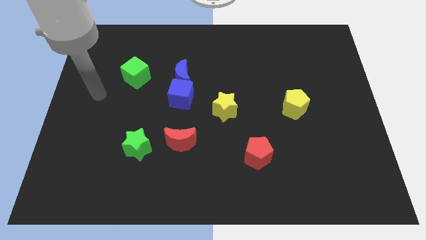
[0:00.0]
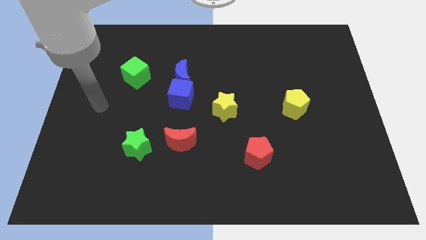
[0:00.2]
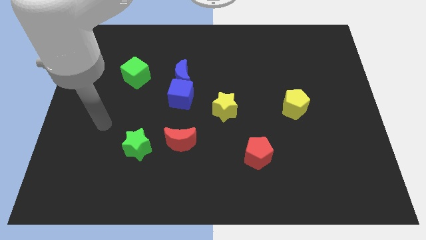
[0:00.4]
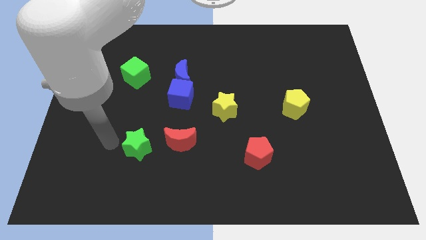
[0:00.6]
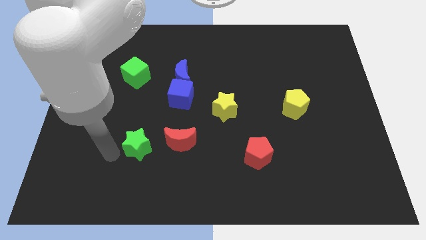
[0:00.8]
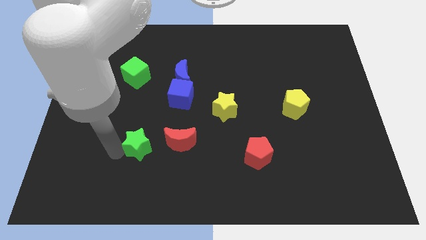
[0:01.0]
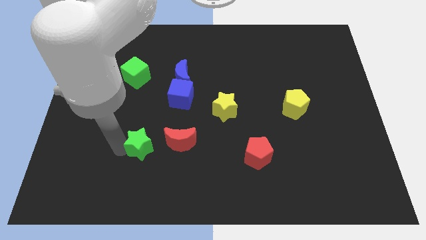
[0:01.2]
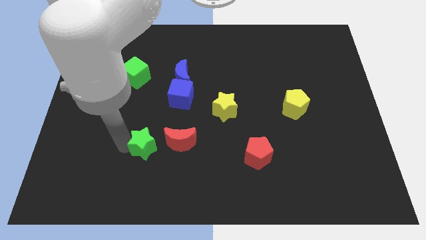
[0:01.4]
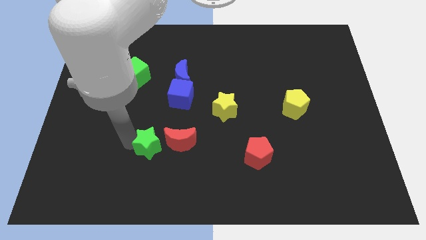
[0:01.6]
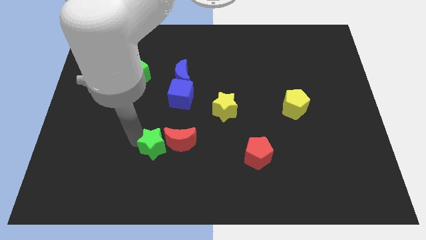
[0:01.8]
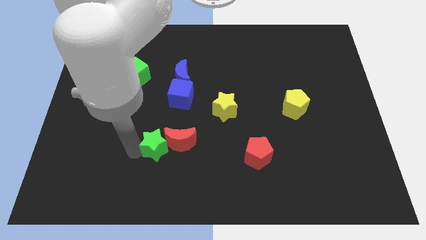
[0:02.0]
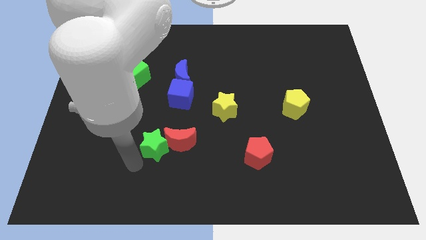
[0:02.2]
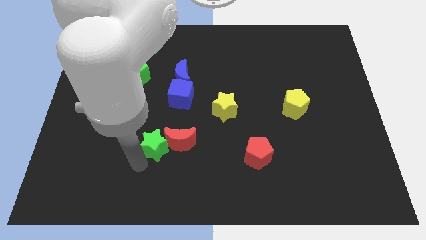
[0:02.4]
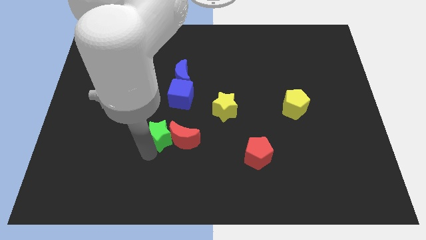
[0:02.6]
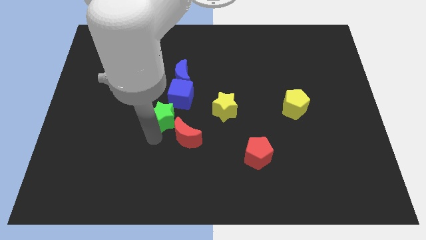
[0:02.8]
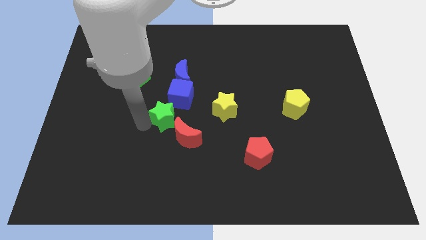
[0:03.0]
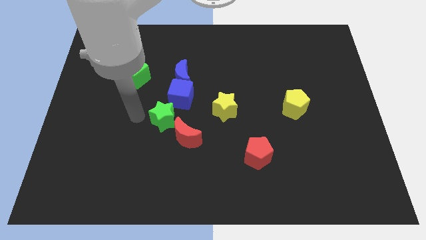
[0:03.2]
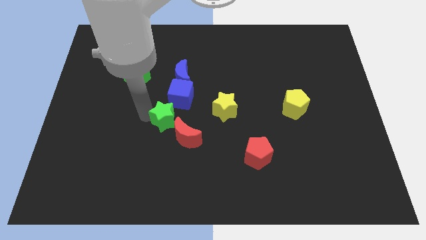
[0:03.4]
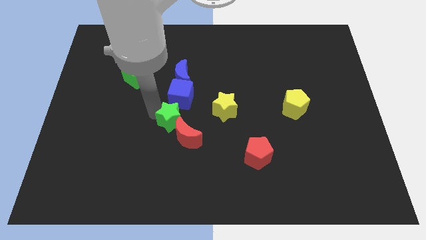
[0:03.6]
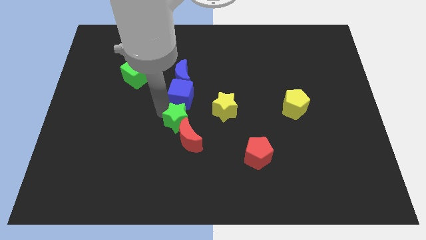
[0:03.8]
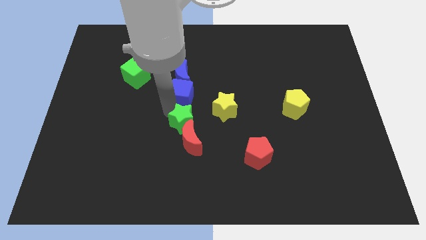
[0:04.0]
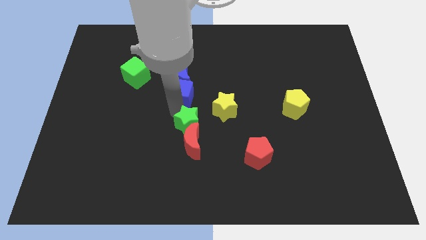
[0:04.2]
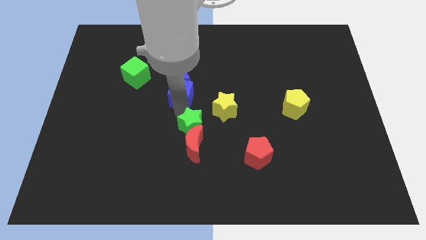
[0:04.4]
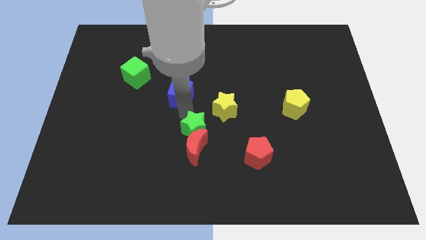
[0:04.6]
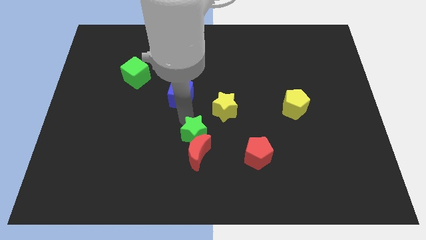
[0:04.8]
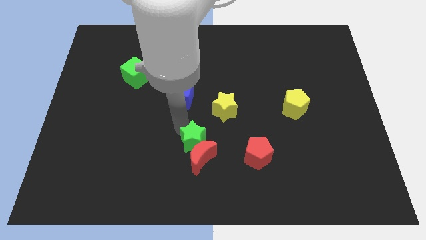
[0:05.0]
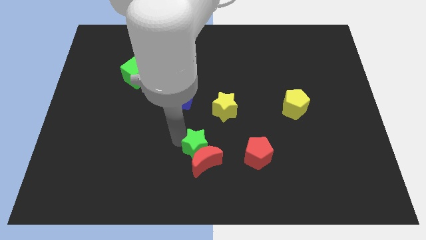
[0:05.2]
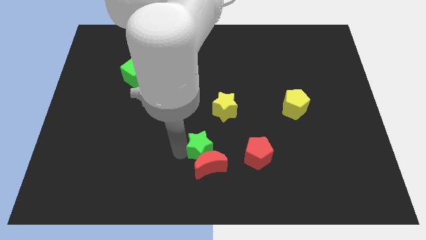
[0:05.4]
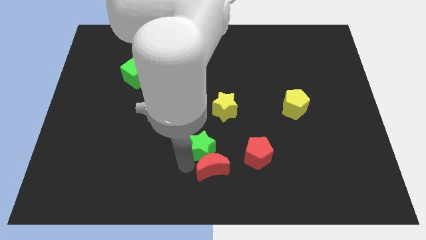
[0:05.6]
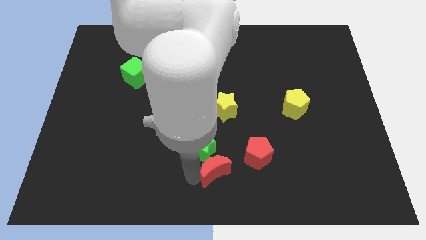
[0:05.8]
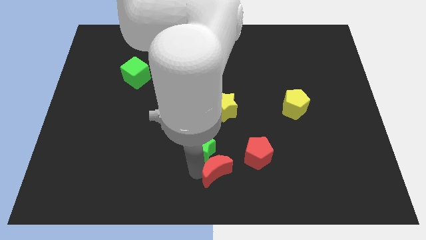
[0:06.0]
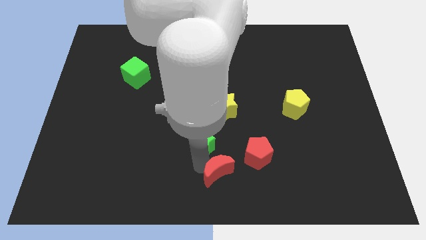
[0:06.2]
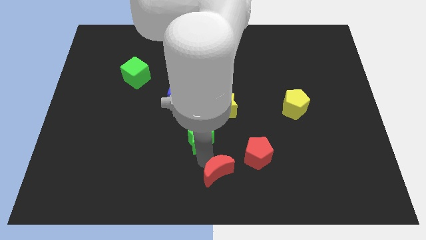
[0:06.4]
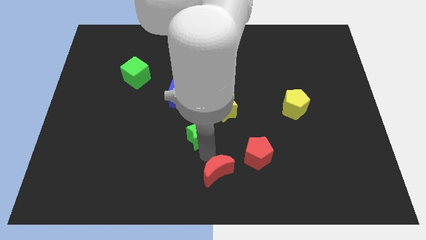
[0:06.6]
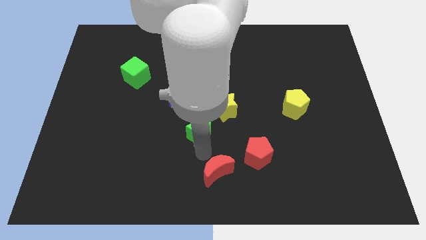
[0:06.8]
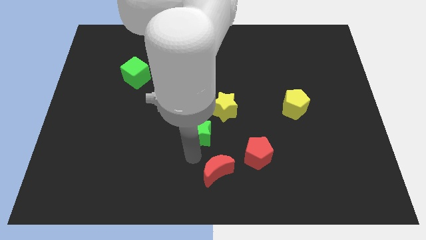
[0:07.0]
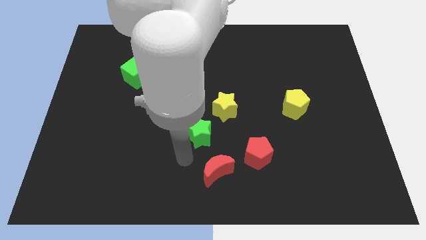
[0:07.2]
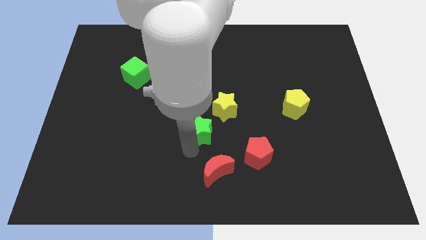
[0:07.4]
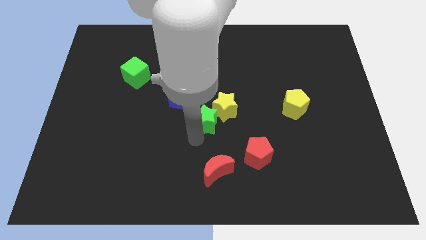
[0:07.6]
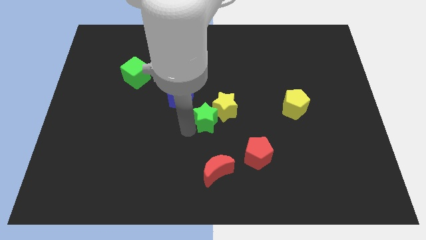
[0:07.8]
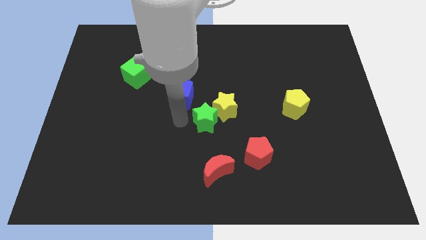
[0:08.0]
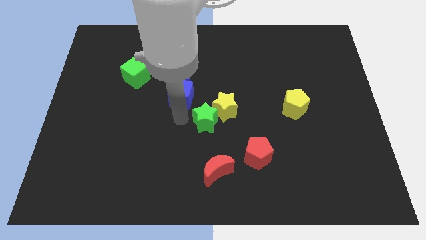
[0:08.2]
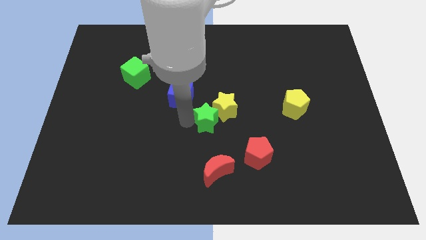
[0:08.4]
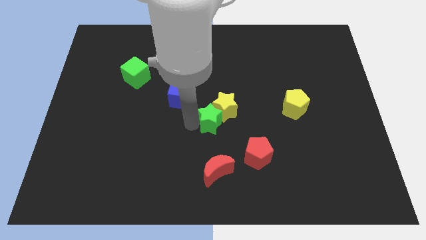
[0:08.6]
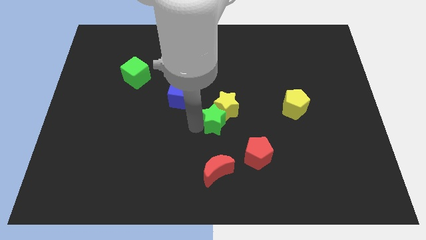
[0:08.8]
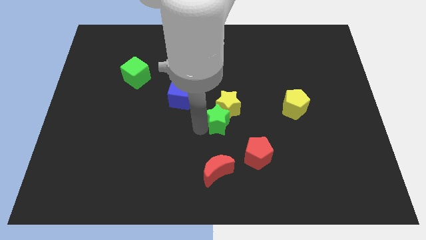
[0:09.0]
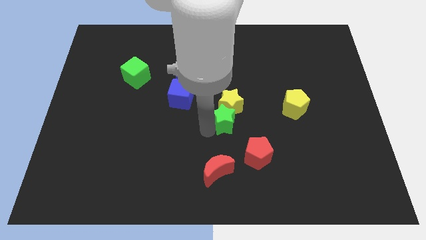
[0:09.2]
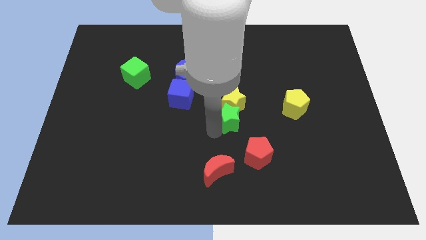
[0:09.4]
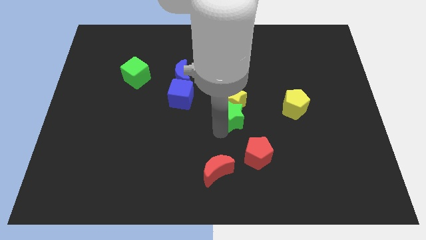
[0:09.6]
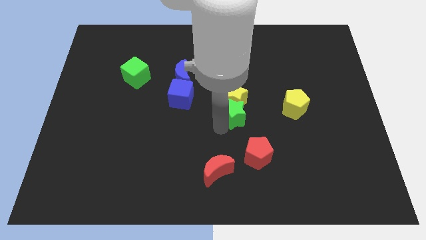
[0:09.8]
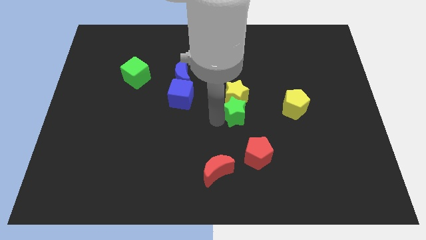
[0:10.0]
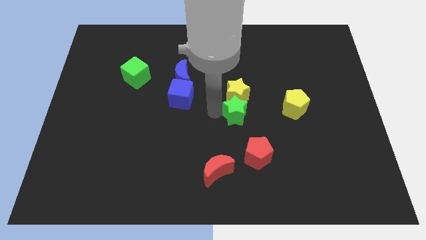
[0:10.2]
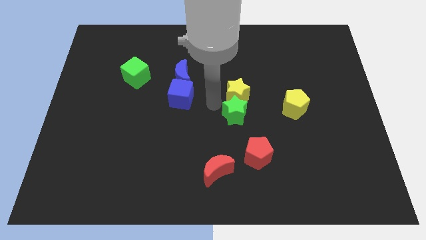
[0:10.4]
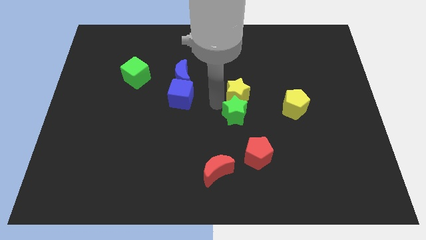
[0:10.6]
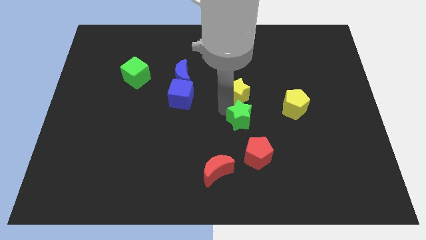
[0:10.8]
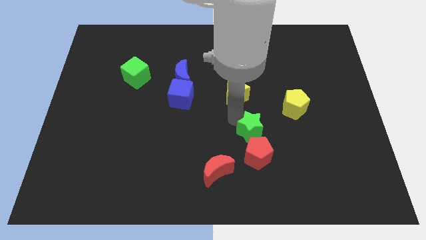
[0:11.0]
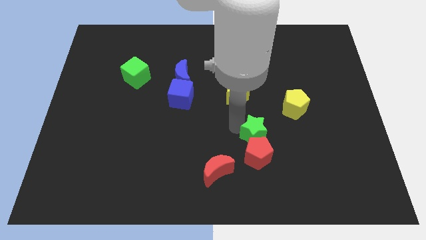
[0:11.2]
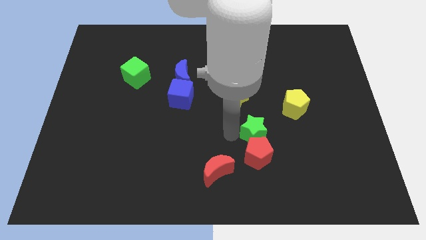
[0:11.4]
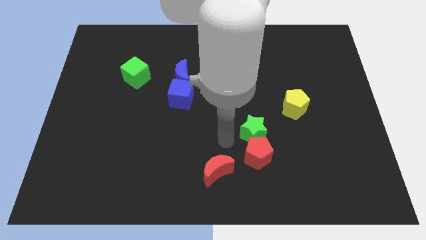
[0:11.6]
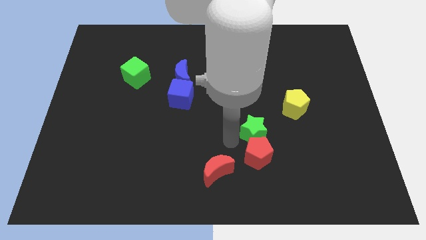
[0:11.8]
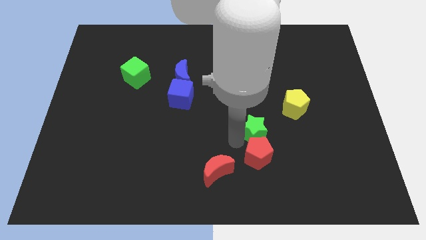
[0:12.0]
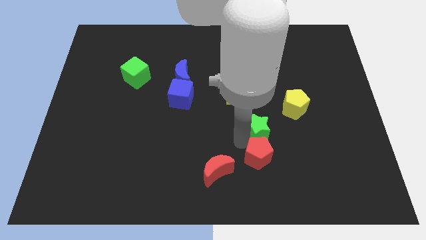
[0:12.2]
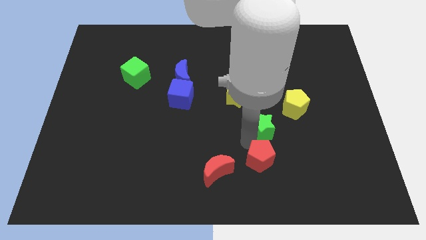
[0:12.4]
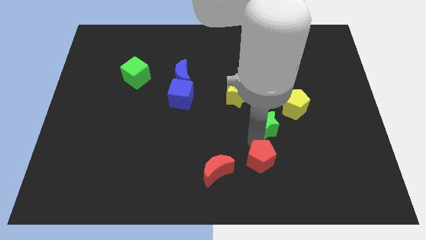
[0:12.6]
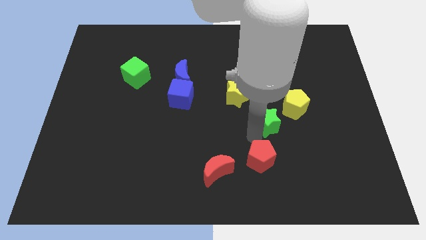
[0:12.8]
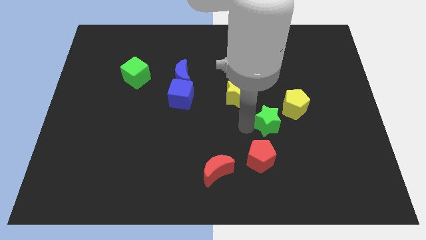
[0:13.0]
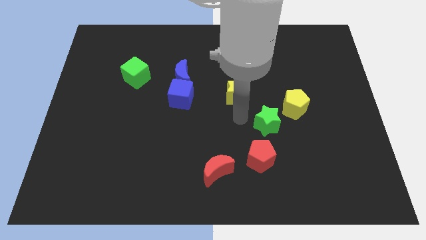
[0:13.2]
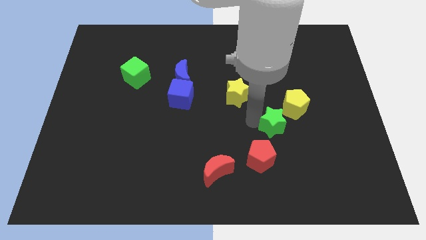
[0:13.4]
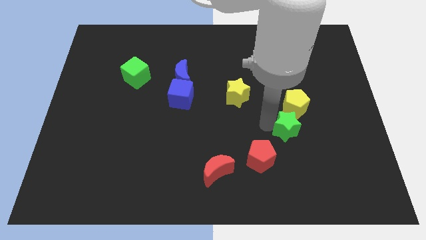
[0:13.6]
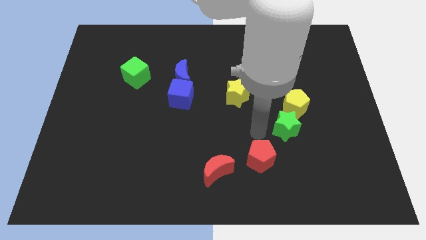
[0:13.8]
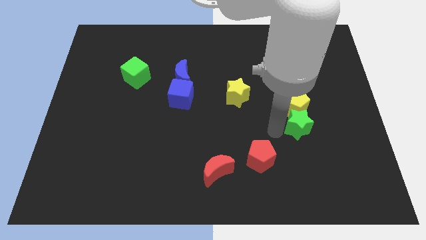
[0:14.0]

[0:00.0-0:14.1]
slide the green star diagonally down and to the right of the yellow pentagon
